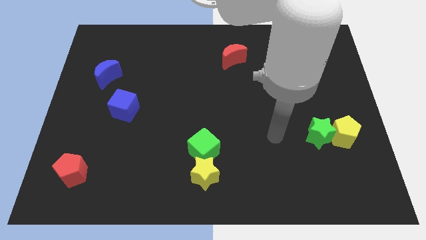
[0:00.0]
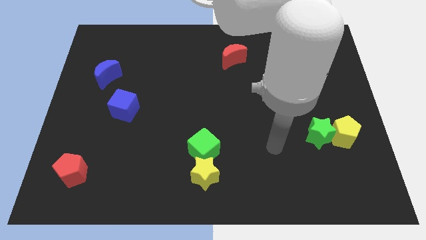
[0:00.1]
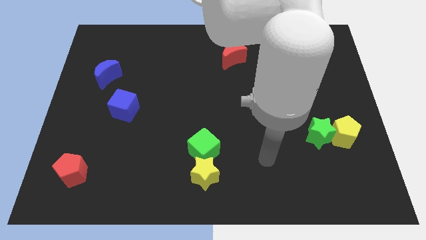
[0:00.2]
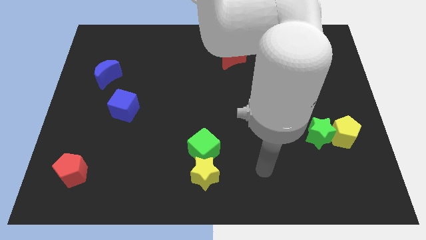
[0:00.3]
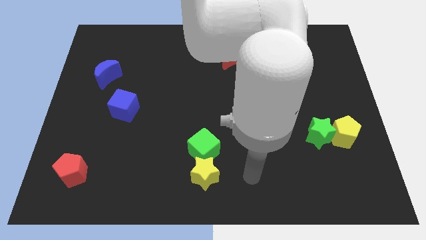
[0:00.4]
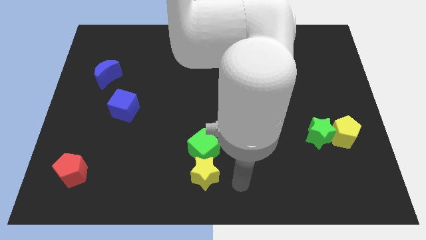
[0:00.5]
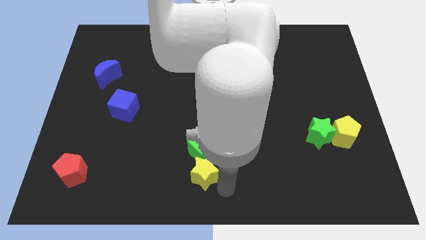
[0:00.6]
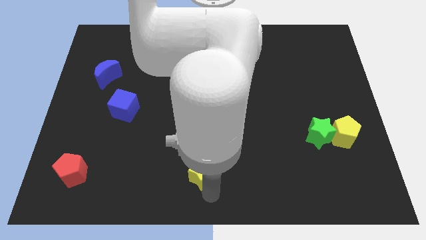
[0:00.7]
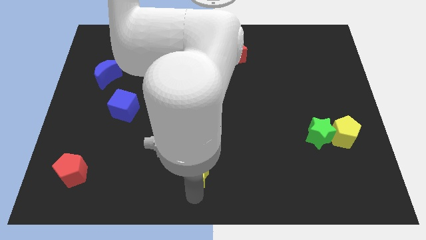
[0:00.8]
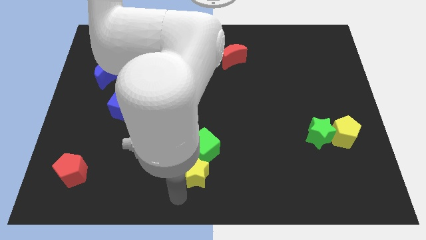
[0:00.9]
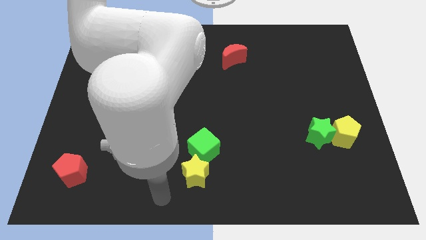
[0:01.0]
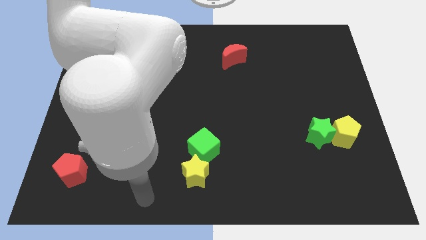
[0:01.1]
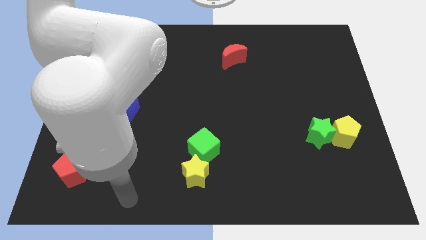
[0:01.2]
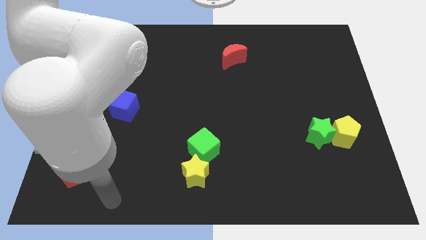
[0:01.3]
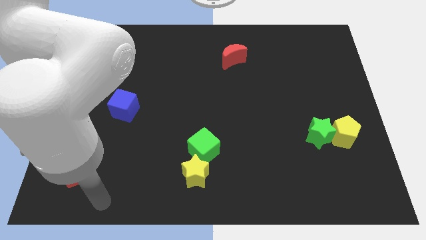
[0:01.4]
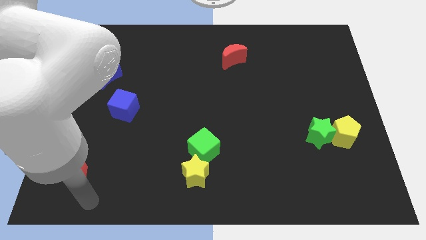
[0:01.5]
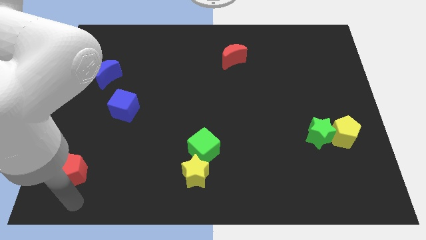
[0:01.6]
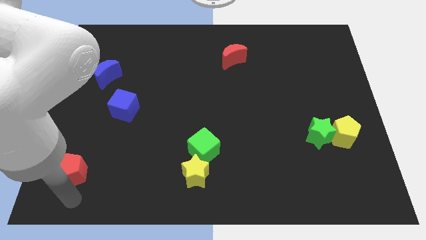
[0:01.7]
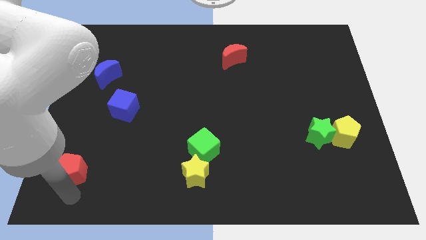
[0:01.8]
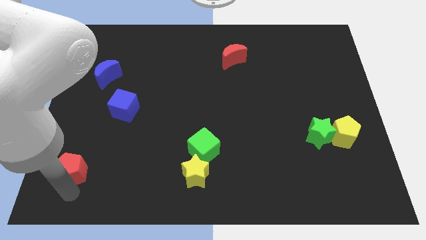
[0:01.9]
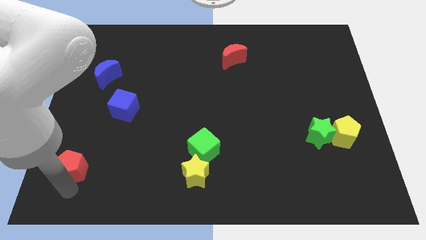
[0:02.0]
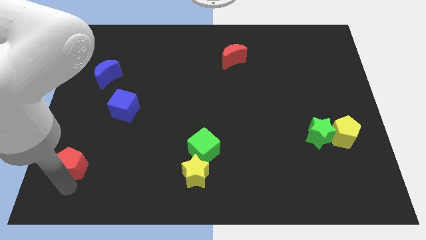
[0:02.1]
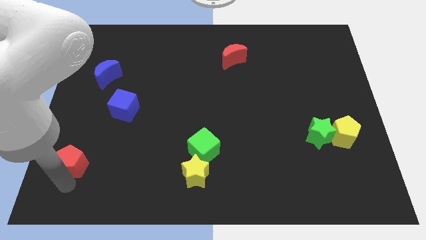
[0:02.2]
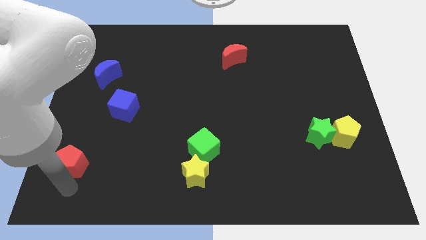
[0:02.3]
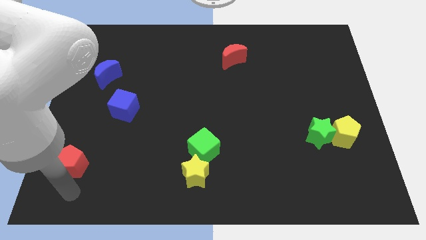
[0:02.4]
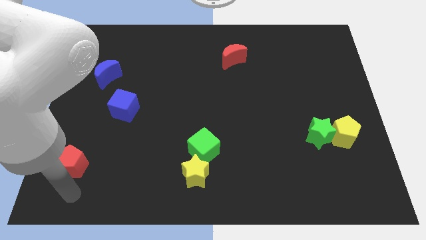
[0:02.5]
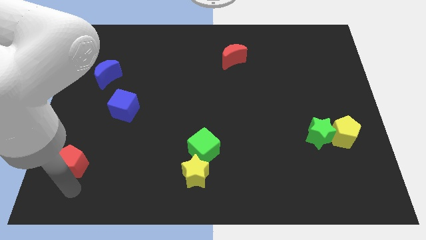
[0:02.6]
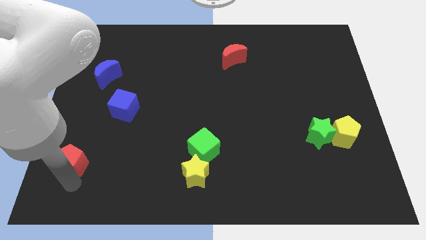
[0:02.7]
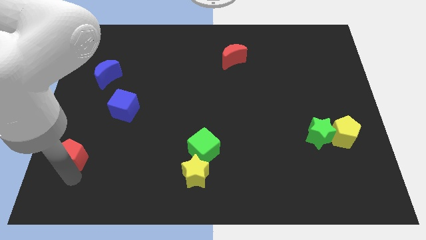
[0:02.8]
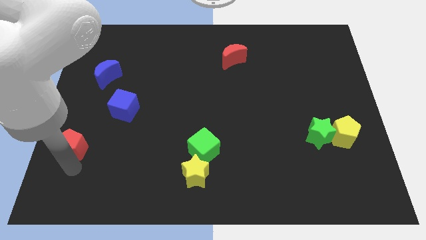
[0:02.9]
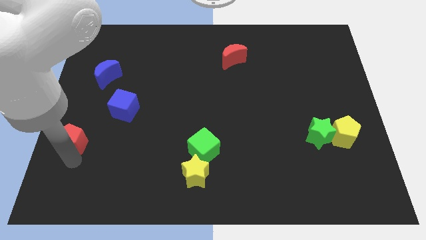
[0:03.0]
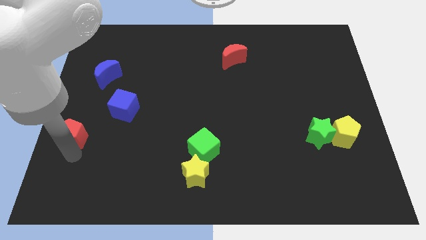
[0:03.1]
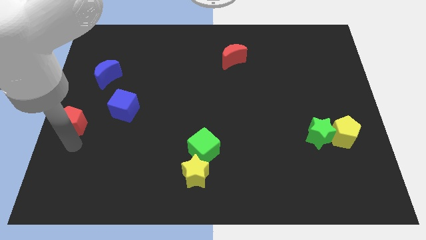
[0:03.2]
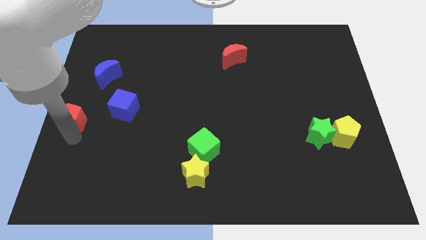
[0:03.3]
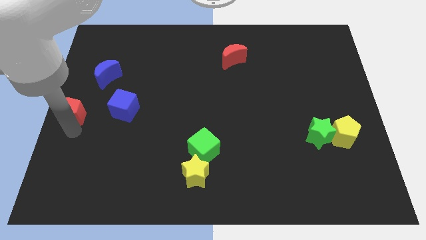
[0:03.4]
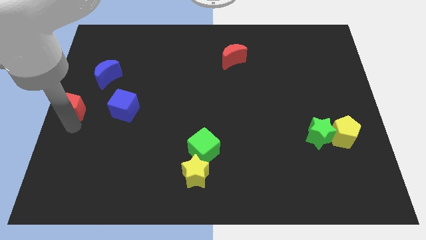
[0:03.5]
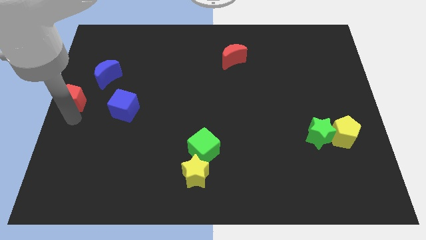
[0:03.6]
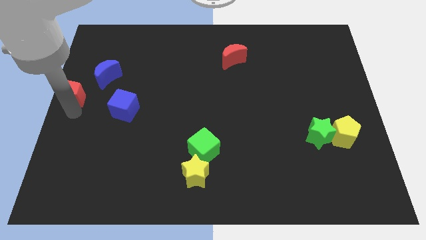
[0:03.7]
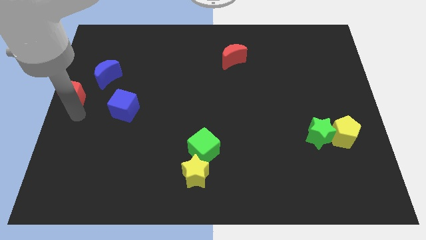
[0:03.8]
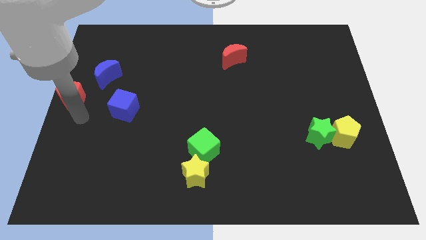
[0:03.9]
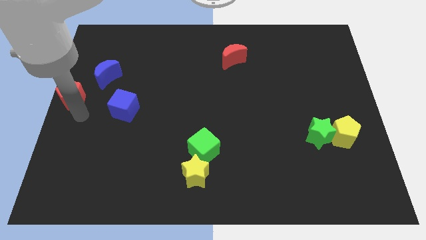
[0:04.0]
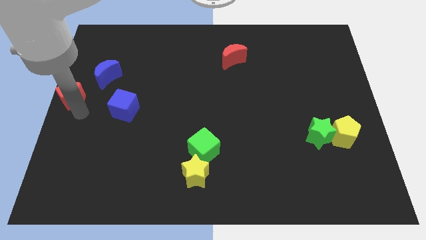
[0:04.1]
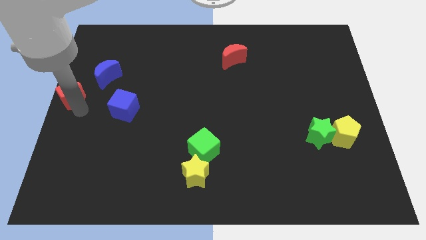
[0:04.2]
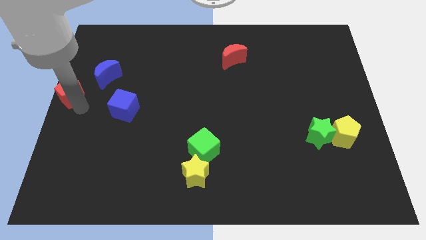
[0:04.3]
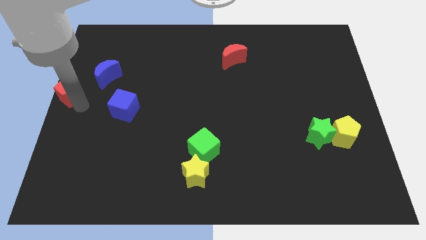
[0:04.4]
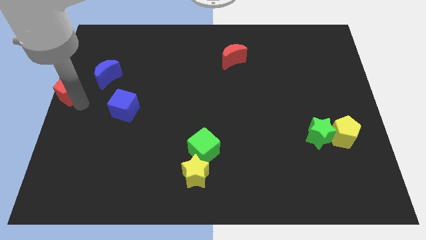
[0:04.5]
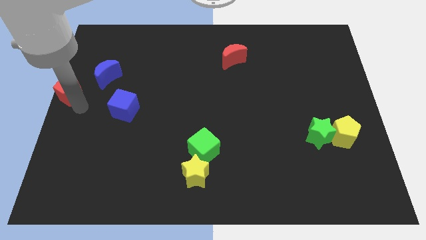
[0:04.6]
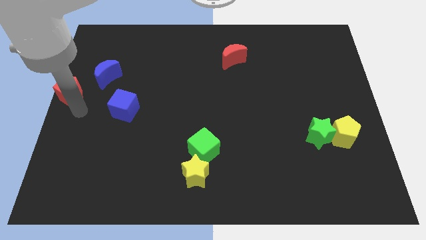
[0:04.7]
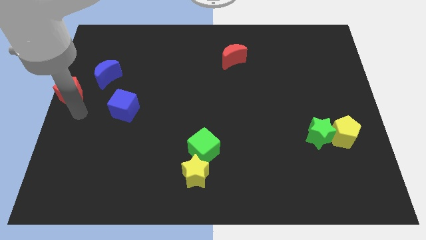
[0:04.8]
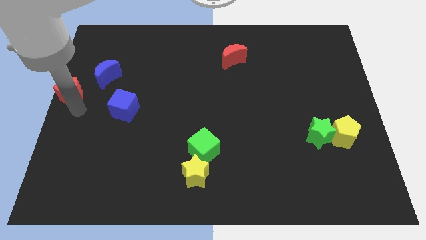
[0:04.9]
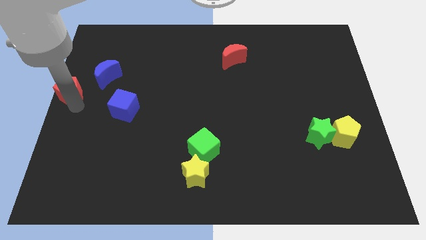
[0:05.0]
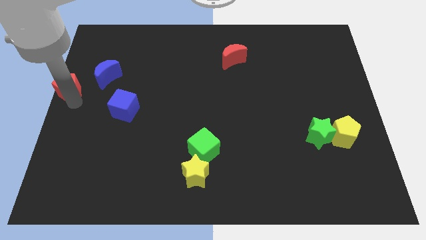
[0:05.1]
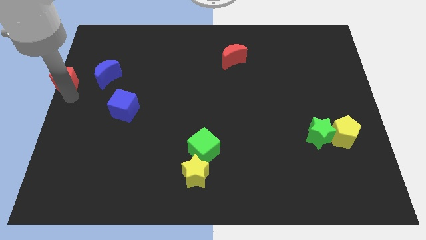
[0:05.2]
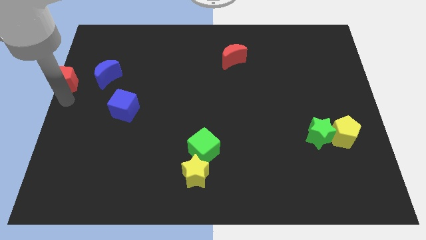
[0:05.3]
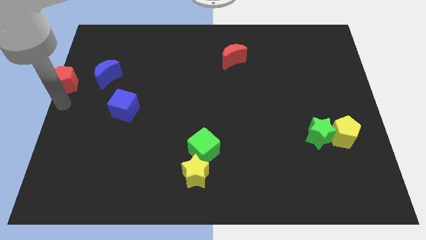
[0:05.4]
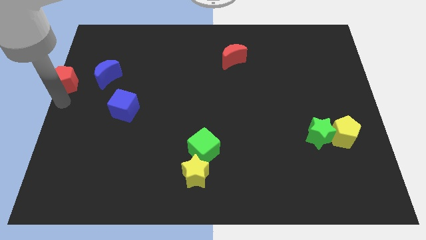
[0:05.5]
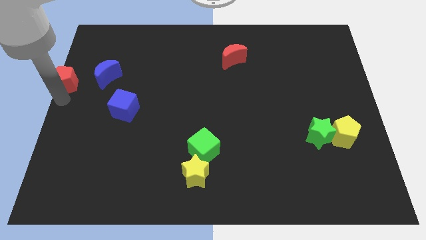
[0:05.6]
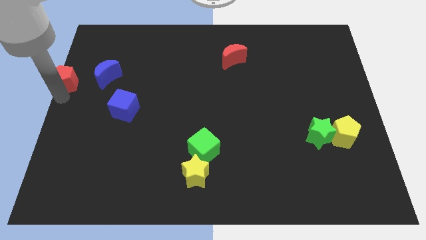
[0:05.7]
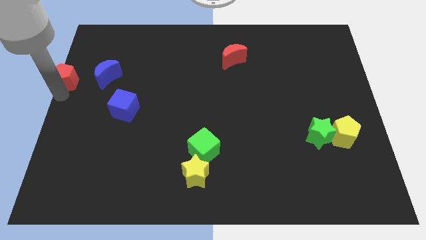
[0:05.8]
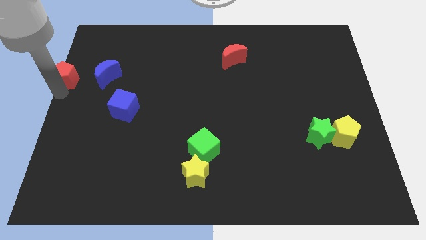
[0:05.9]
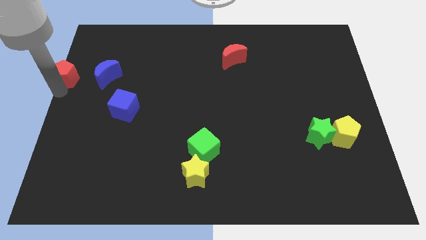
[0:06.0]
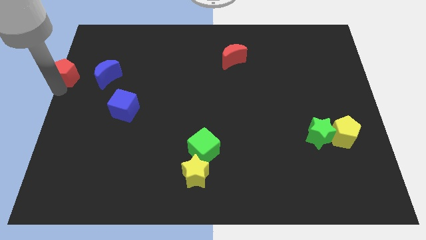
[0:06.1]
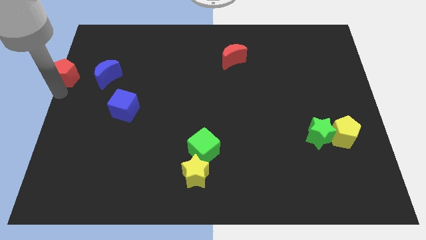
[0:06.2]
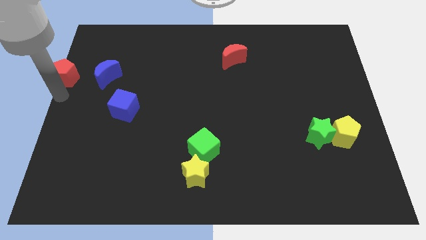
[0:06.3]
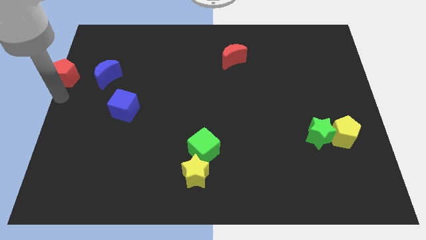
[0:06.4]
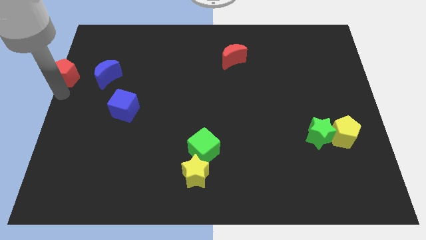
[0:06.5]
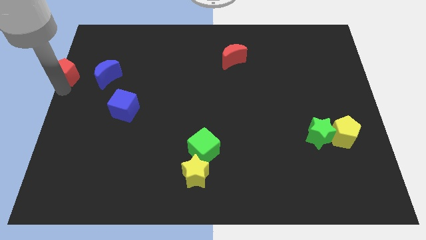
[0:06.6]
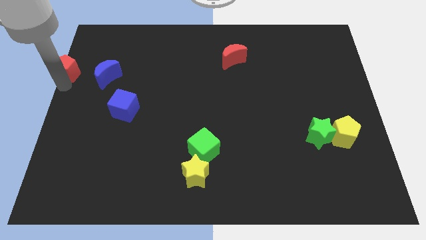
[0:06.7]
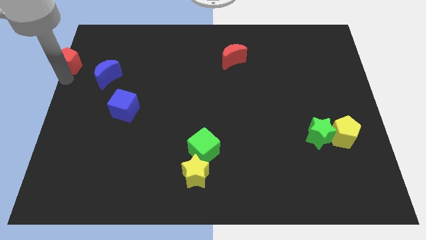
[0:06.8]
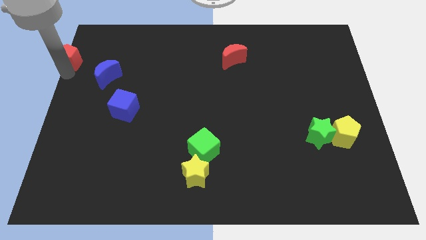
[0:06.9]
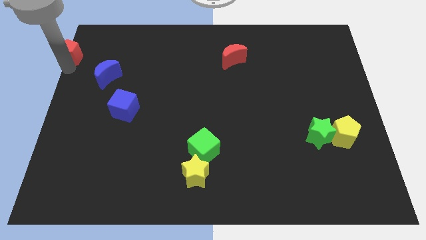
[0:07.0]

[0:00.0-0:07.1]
push the red pentagon to the top left corner
